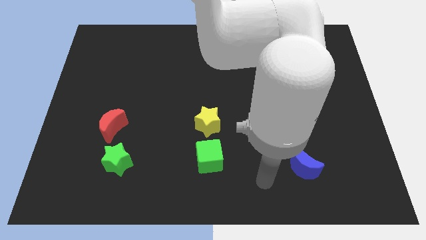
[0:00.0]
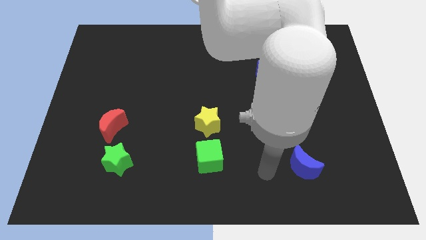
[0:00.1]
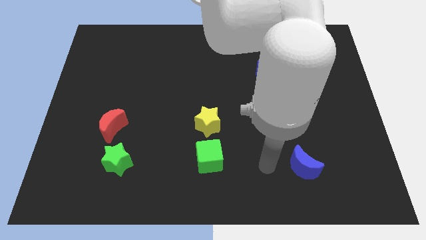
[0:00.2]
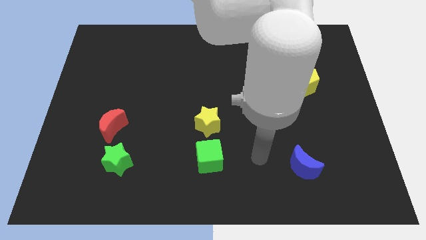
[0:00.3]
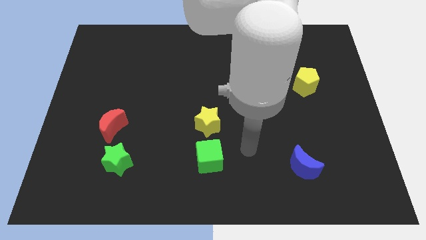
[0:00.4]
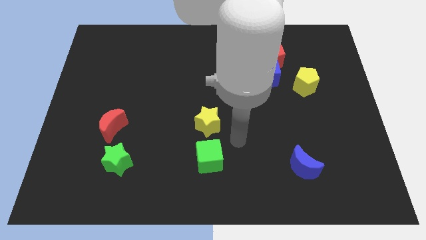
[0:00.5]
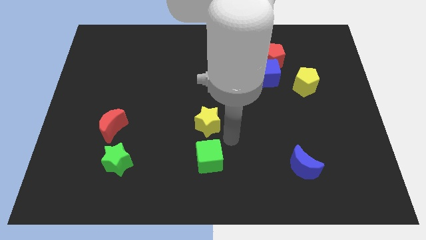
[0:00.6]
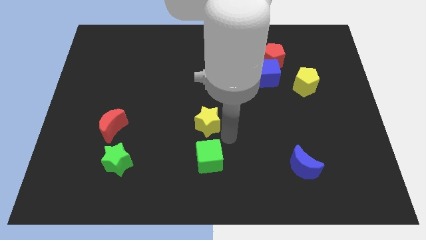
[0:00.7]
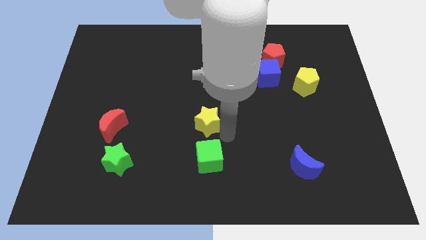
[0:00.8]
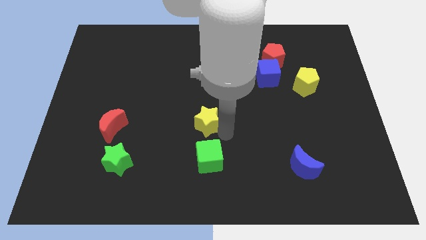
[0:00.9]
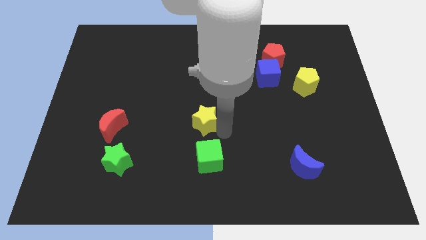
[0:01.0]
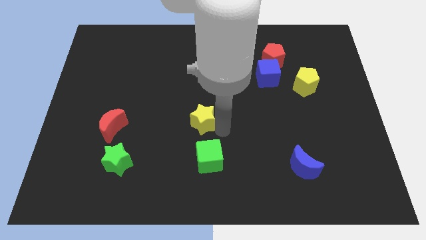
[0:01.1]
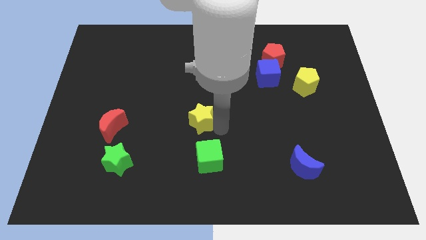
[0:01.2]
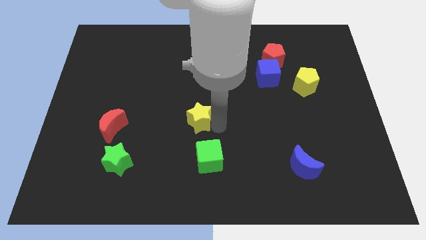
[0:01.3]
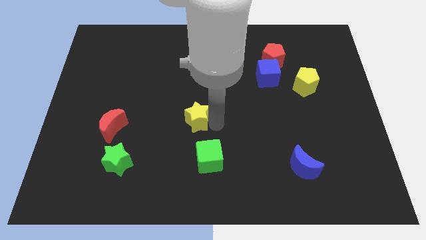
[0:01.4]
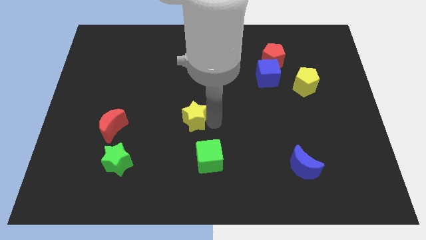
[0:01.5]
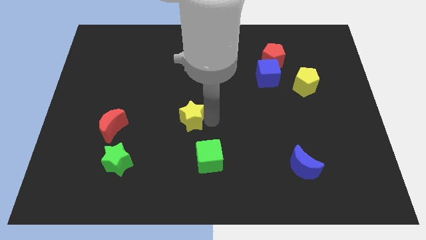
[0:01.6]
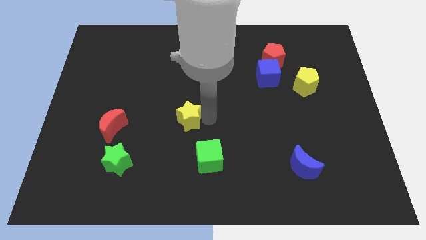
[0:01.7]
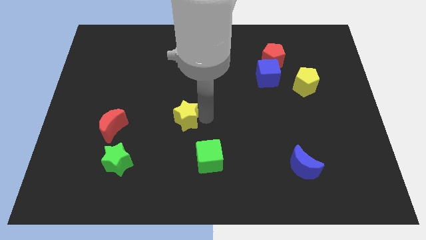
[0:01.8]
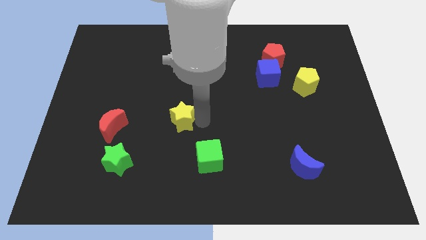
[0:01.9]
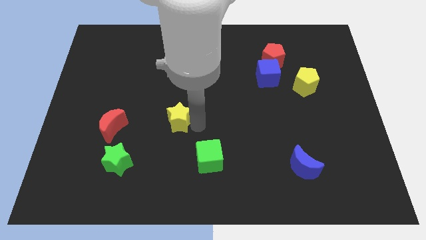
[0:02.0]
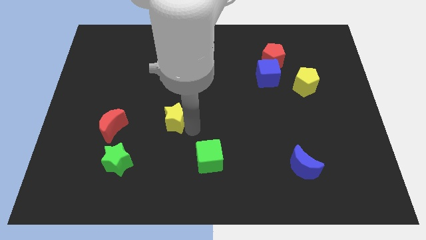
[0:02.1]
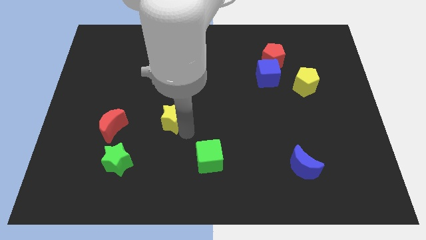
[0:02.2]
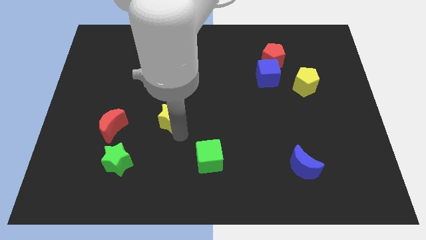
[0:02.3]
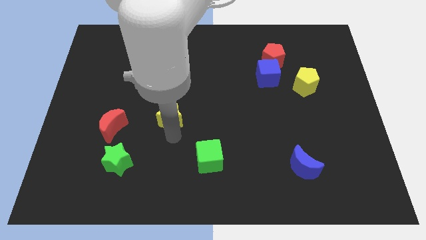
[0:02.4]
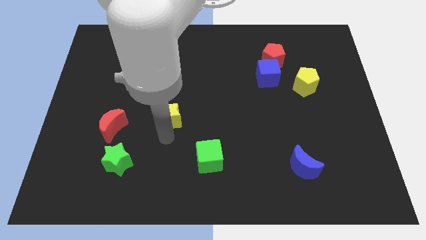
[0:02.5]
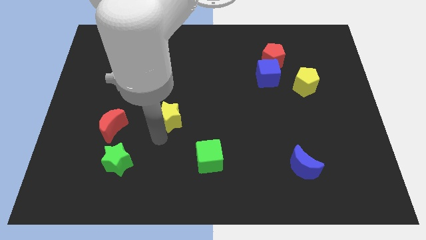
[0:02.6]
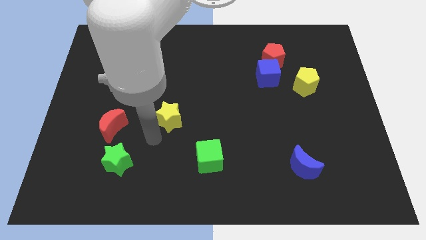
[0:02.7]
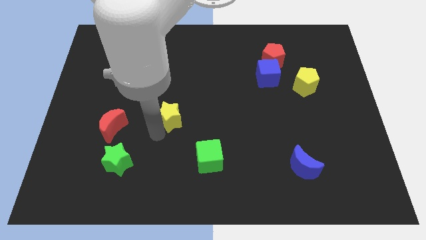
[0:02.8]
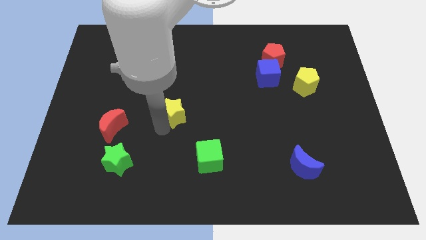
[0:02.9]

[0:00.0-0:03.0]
move the yellow star a little bit upwards and left

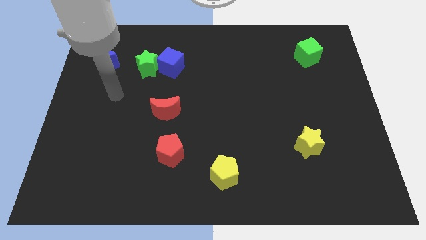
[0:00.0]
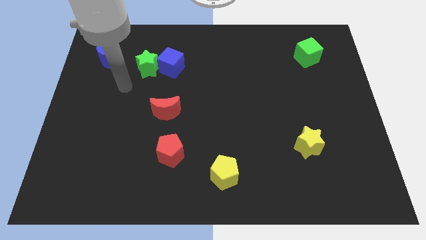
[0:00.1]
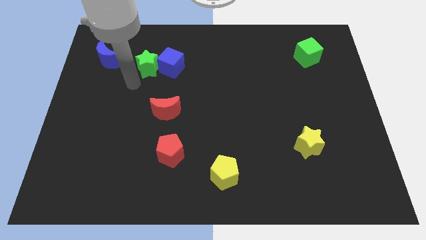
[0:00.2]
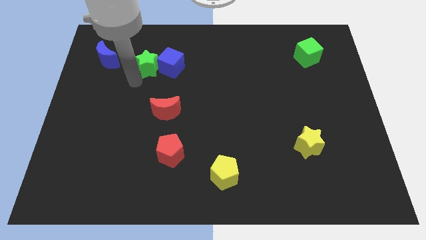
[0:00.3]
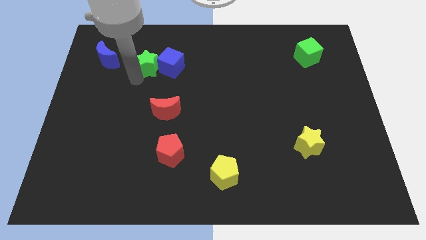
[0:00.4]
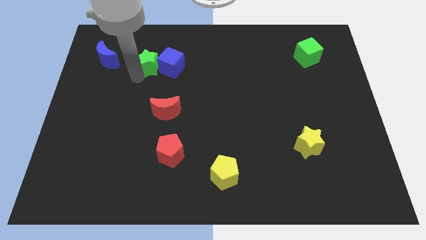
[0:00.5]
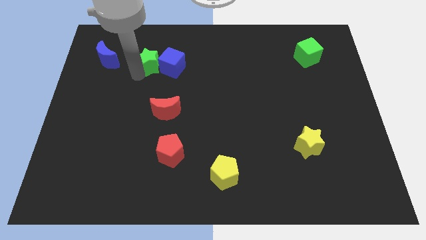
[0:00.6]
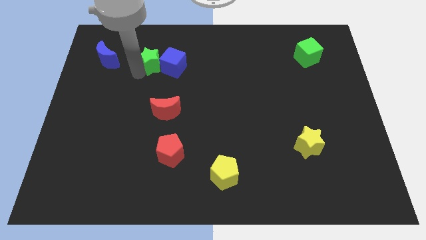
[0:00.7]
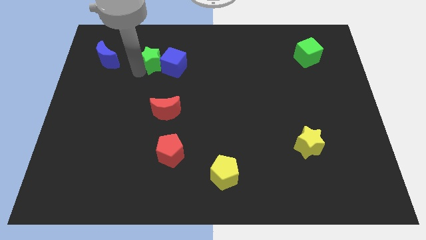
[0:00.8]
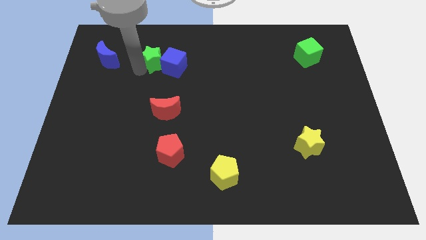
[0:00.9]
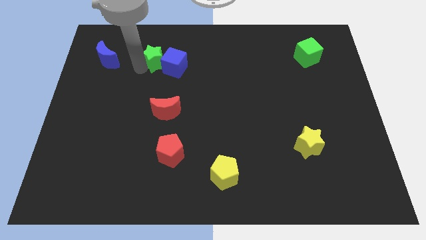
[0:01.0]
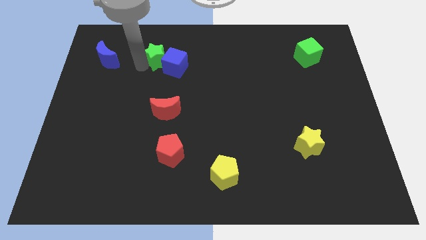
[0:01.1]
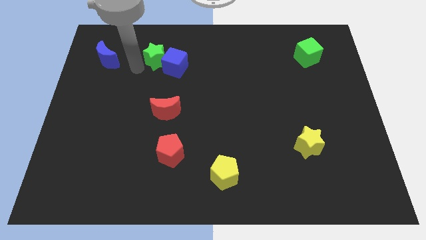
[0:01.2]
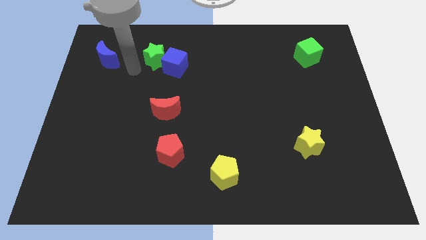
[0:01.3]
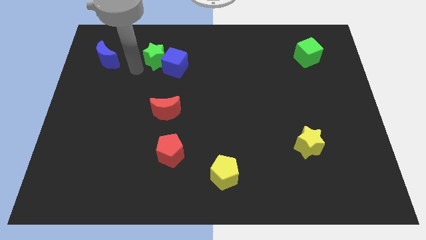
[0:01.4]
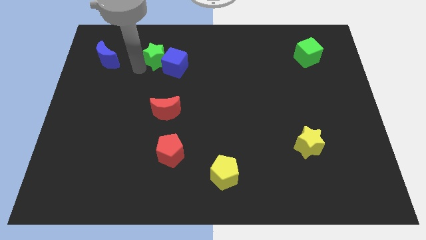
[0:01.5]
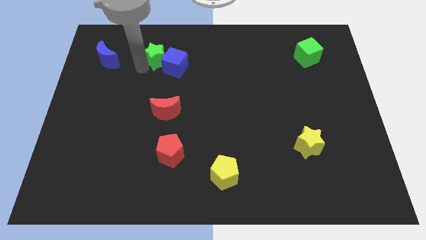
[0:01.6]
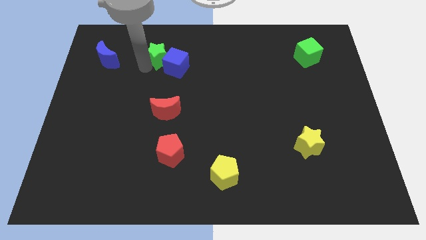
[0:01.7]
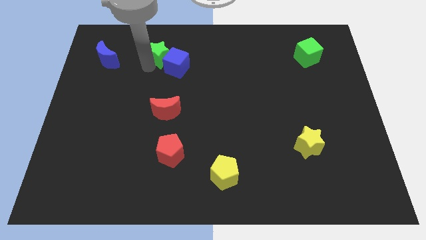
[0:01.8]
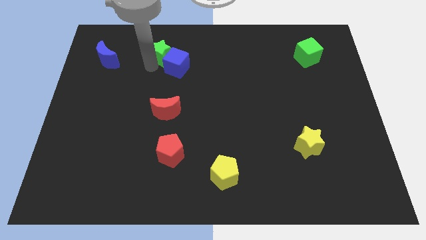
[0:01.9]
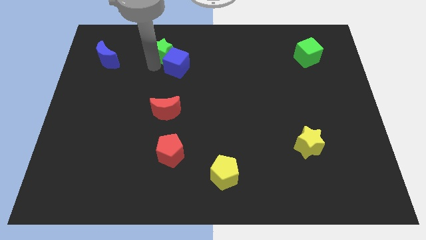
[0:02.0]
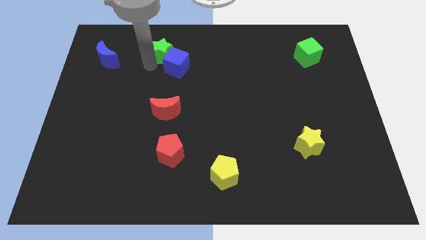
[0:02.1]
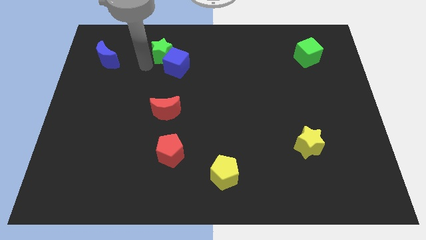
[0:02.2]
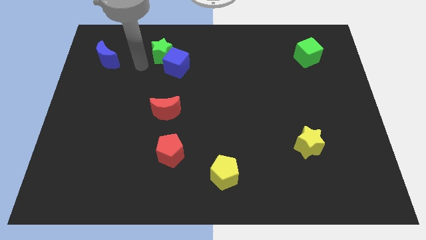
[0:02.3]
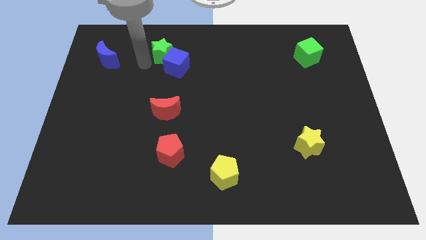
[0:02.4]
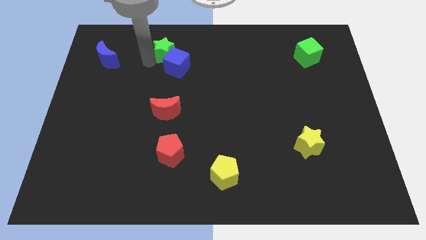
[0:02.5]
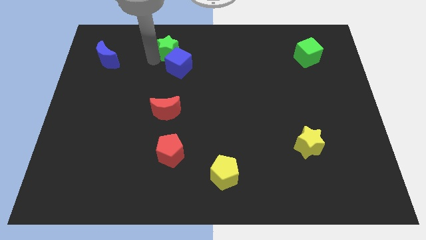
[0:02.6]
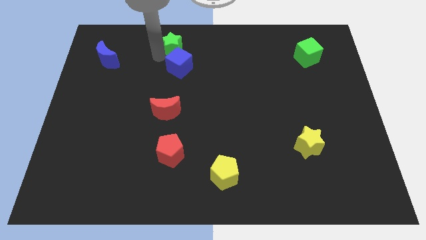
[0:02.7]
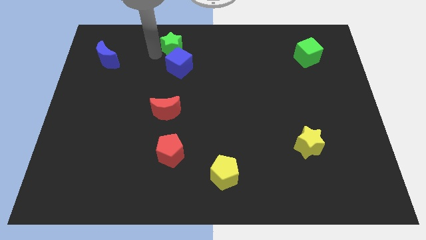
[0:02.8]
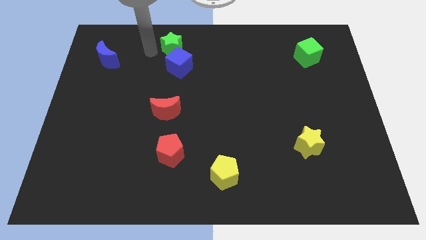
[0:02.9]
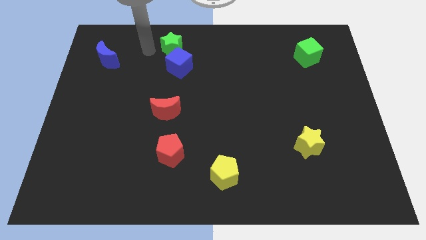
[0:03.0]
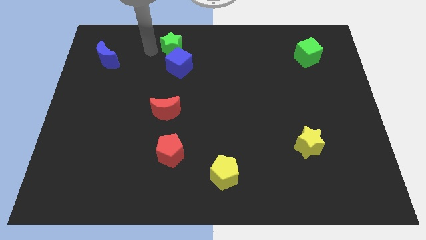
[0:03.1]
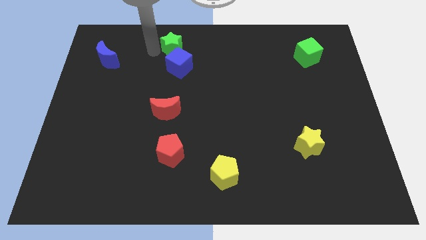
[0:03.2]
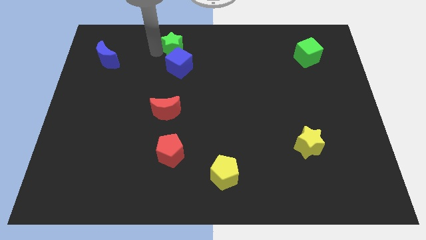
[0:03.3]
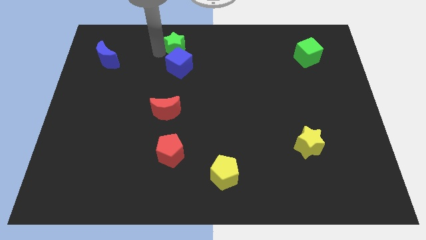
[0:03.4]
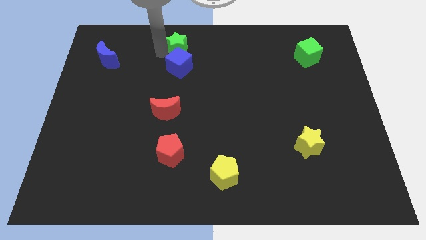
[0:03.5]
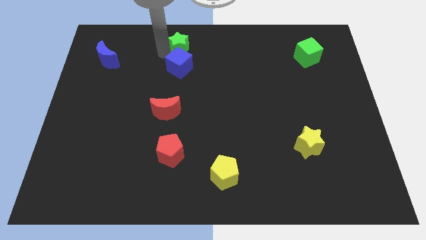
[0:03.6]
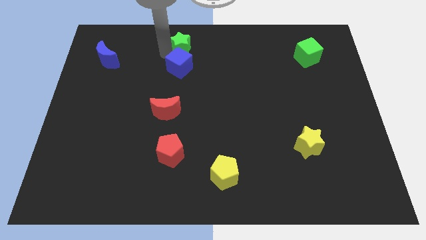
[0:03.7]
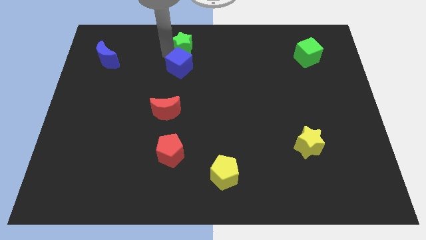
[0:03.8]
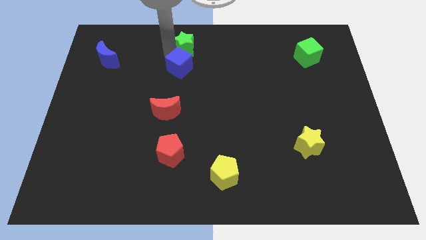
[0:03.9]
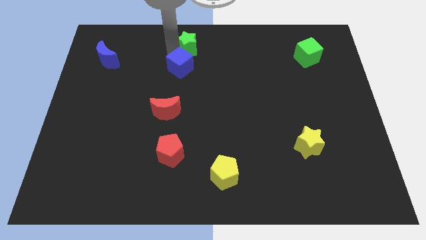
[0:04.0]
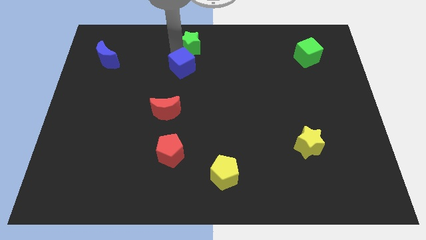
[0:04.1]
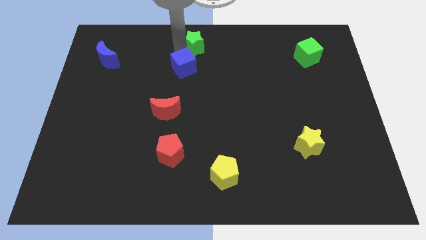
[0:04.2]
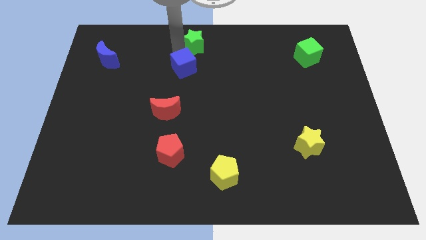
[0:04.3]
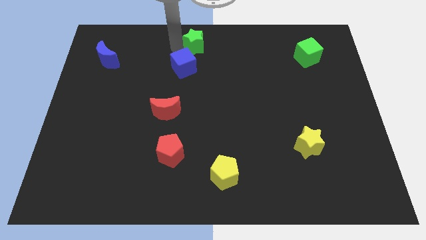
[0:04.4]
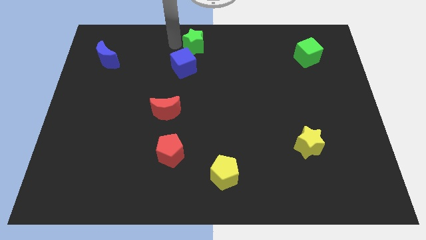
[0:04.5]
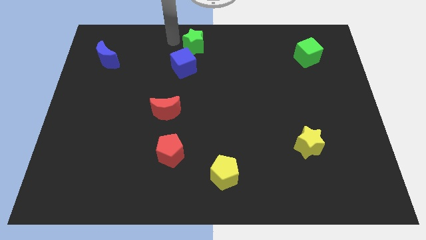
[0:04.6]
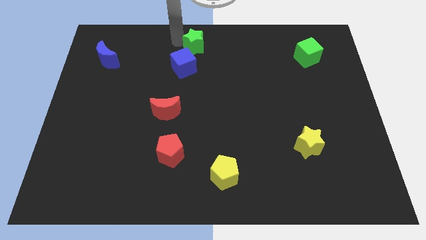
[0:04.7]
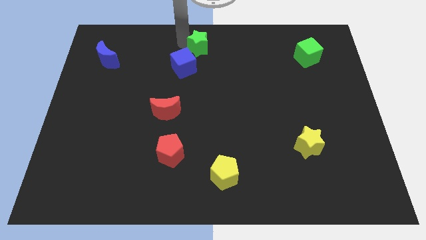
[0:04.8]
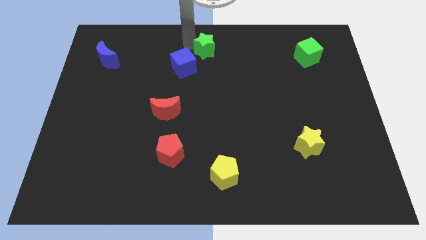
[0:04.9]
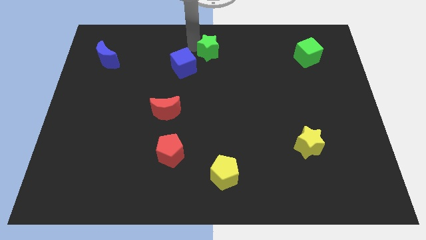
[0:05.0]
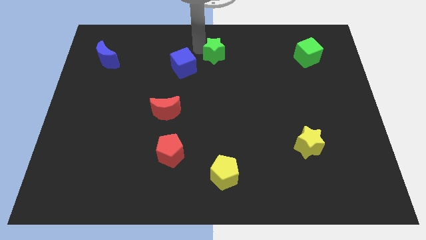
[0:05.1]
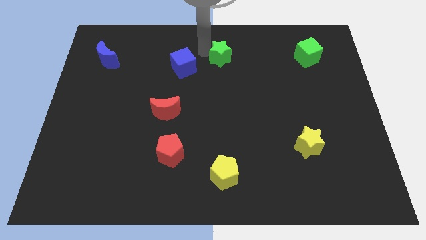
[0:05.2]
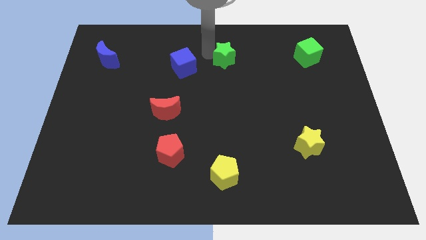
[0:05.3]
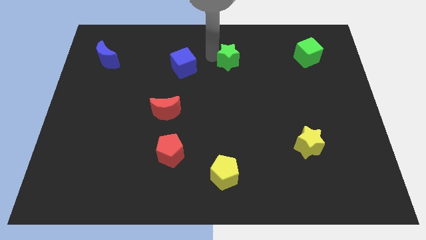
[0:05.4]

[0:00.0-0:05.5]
move the green star to the right
